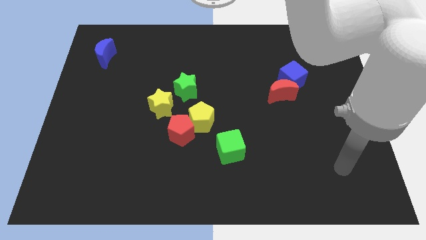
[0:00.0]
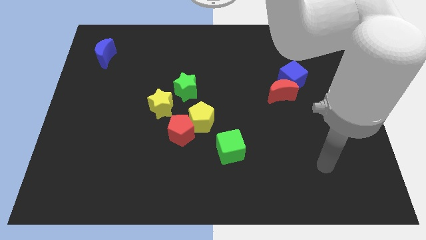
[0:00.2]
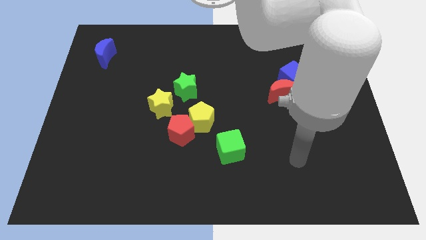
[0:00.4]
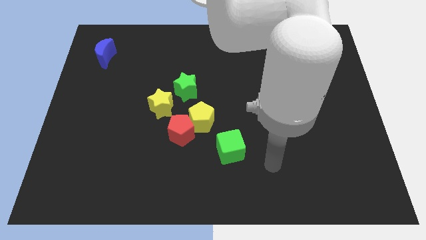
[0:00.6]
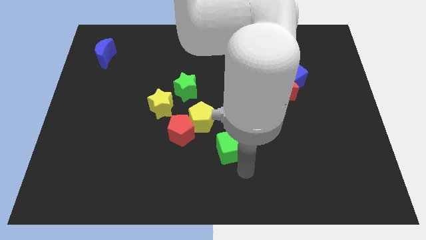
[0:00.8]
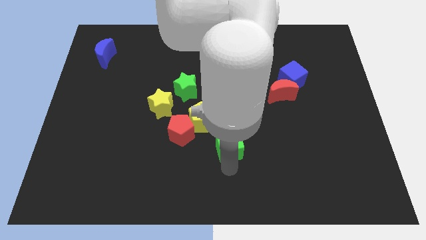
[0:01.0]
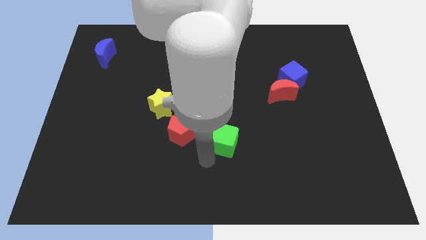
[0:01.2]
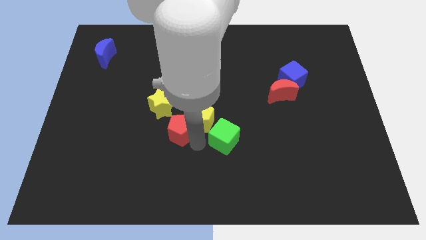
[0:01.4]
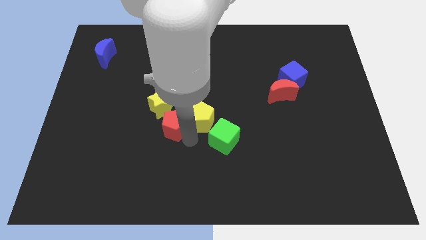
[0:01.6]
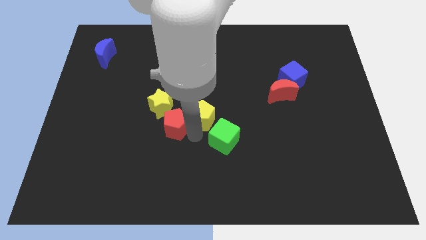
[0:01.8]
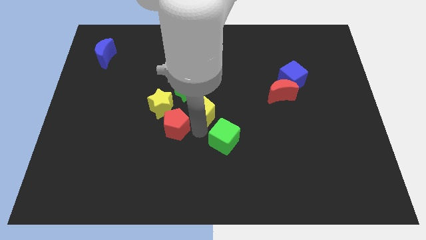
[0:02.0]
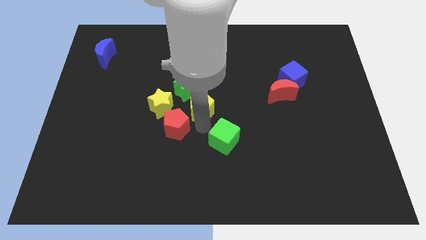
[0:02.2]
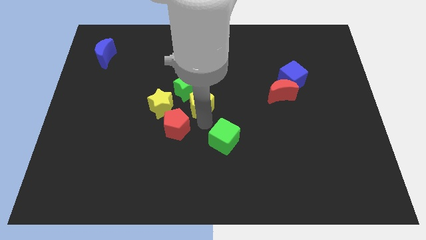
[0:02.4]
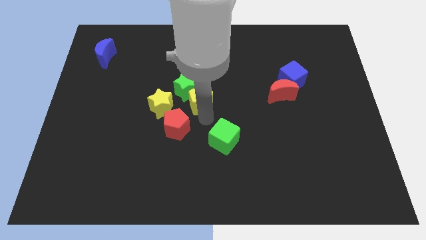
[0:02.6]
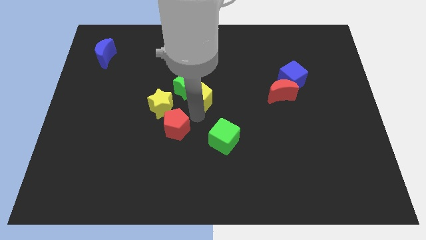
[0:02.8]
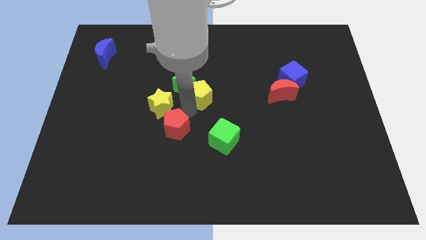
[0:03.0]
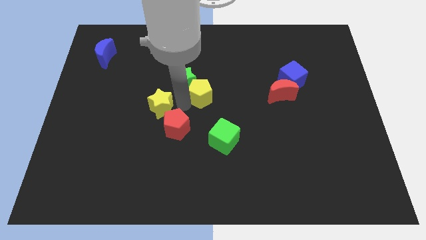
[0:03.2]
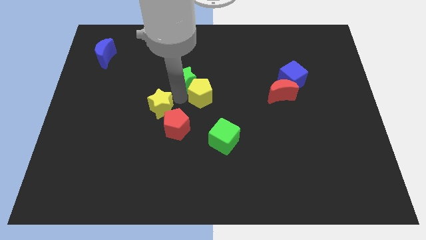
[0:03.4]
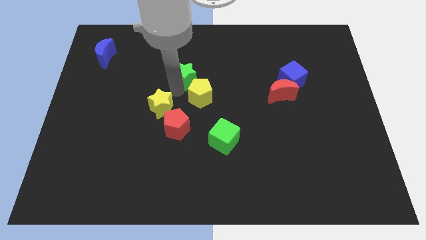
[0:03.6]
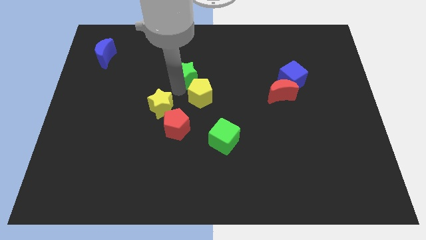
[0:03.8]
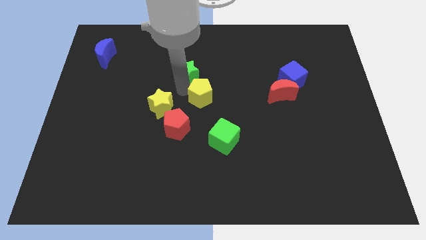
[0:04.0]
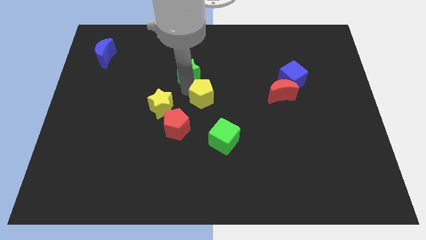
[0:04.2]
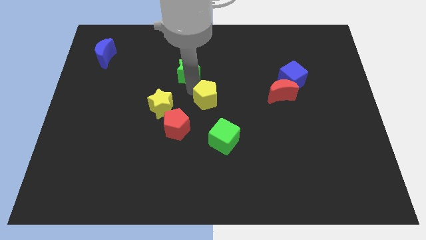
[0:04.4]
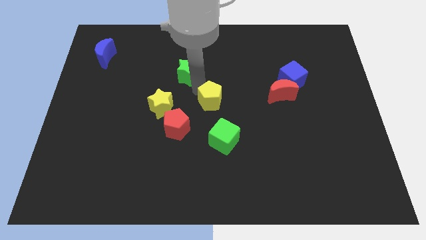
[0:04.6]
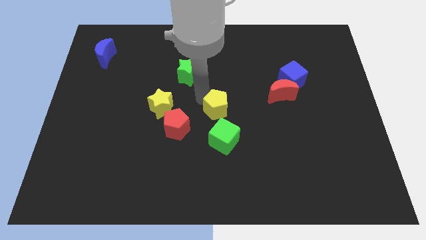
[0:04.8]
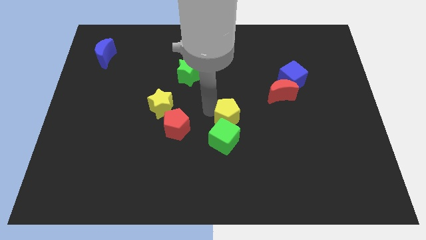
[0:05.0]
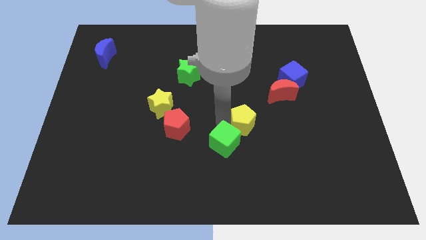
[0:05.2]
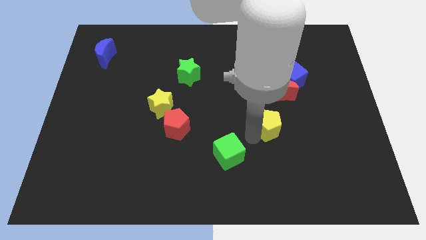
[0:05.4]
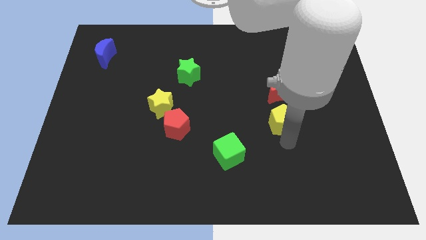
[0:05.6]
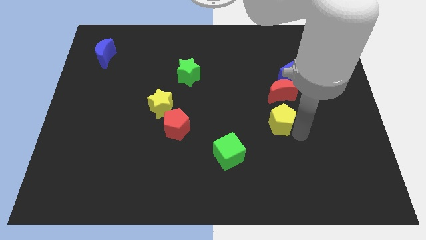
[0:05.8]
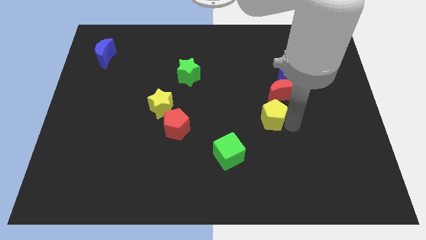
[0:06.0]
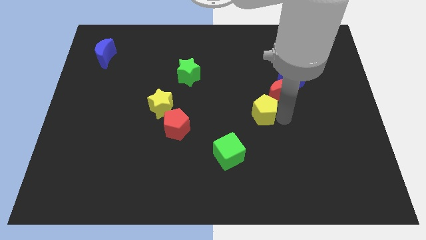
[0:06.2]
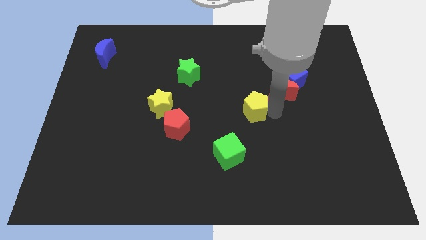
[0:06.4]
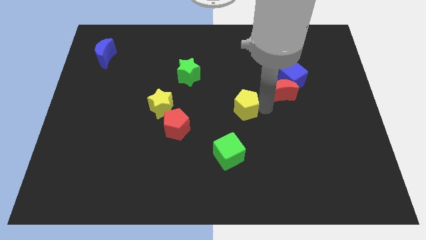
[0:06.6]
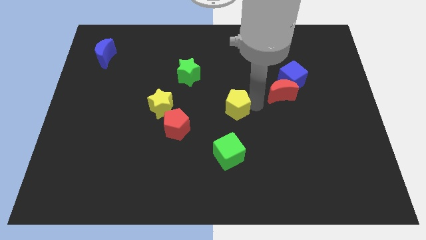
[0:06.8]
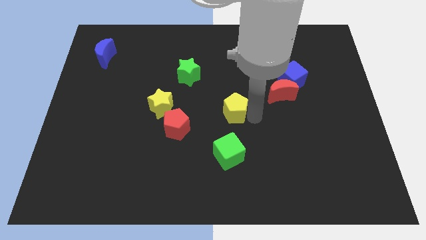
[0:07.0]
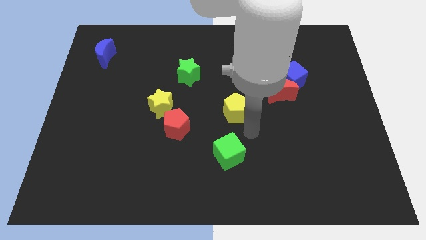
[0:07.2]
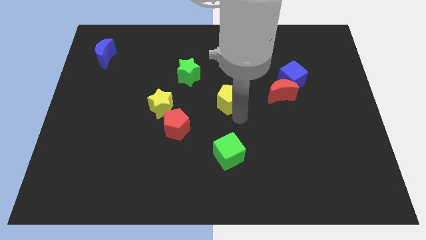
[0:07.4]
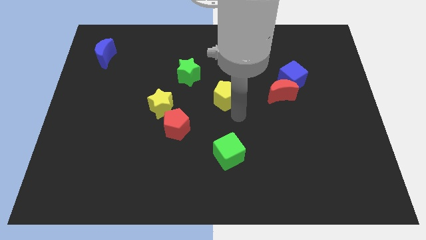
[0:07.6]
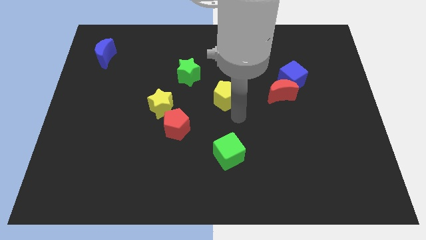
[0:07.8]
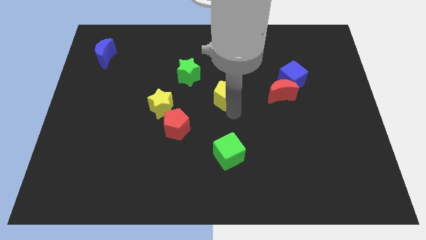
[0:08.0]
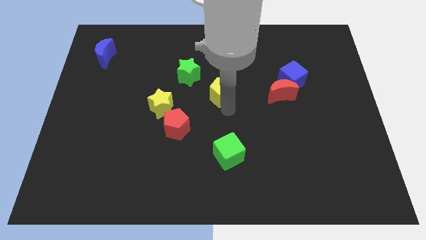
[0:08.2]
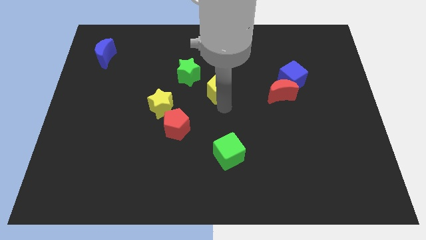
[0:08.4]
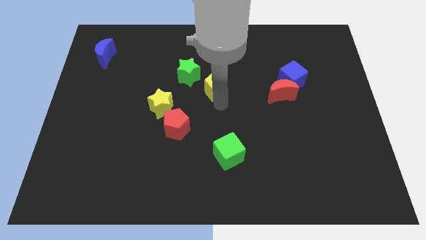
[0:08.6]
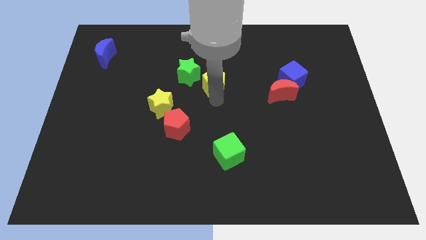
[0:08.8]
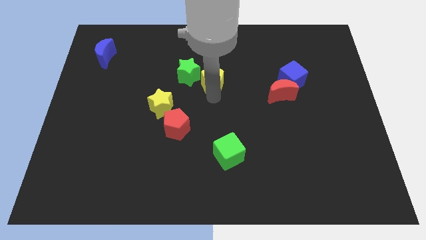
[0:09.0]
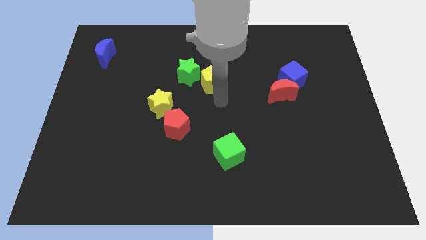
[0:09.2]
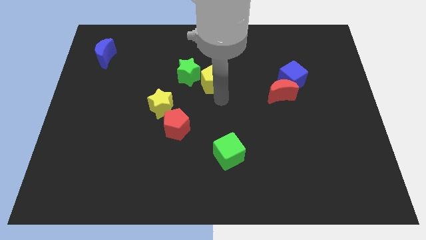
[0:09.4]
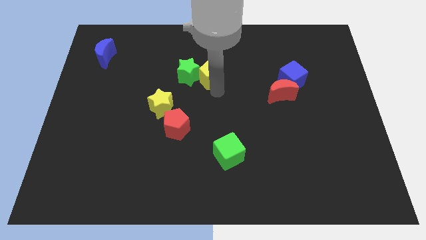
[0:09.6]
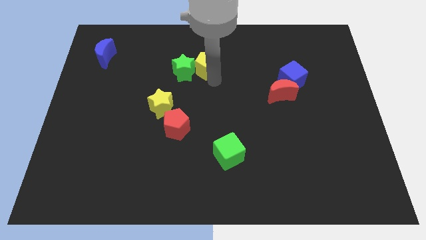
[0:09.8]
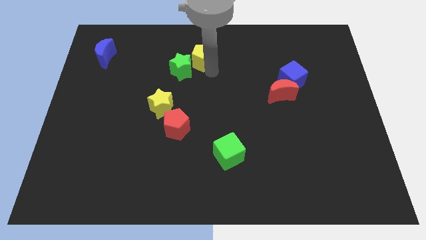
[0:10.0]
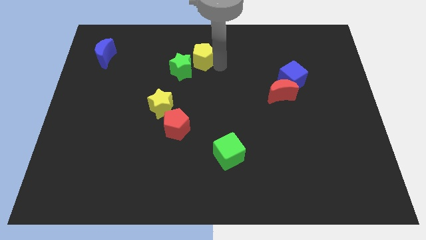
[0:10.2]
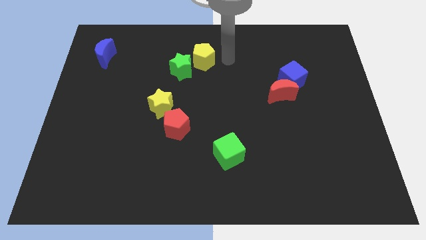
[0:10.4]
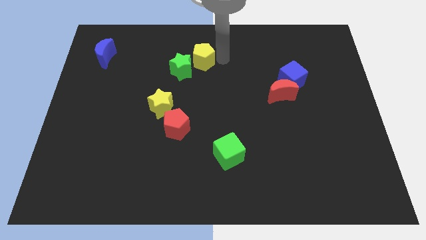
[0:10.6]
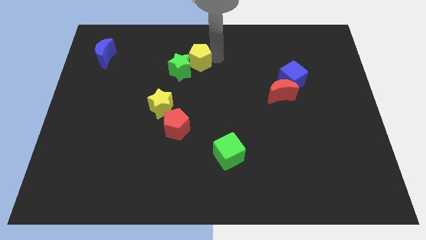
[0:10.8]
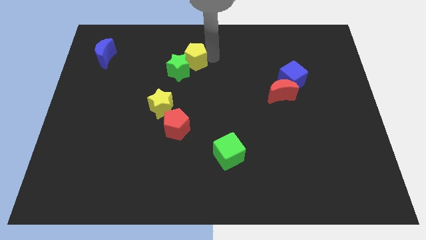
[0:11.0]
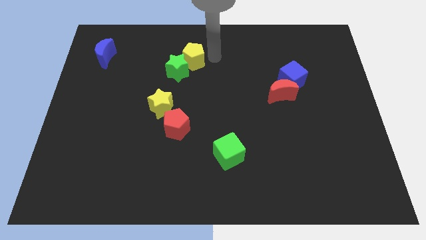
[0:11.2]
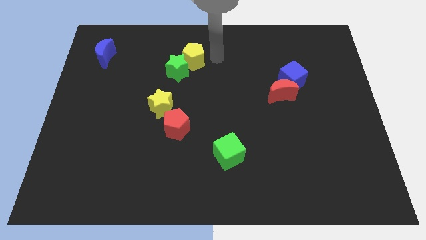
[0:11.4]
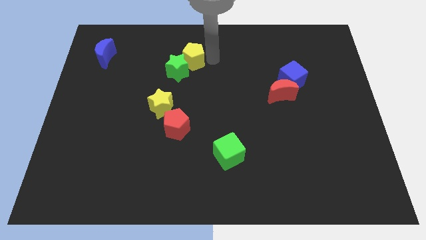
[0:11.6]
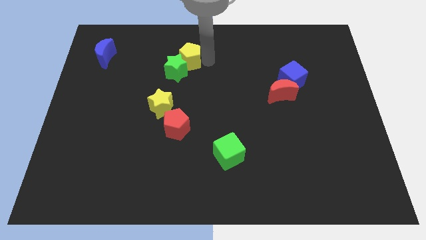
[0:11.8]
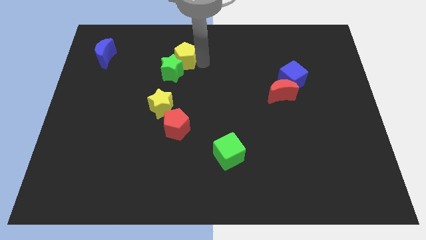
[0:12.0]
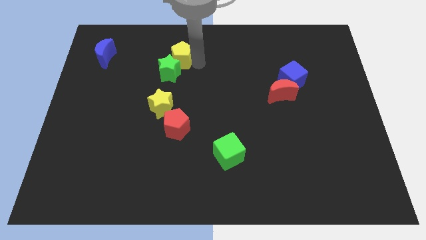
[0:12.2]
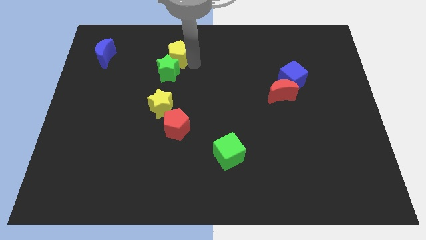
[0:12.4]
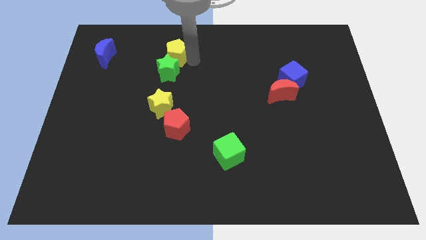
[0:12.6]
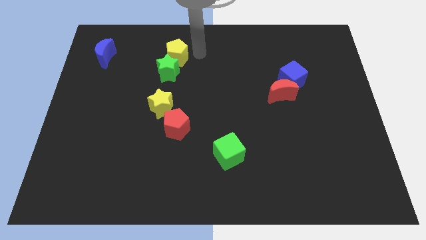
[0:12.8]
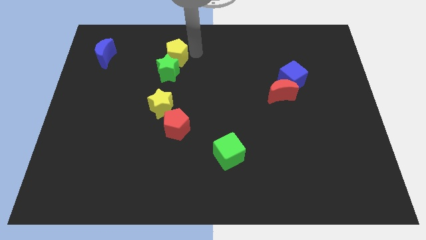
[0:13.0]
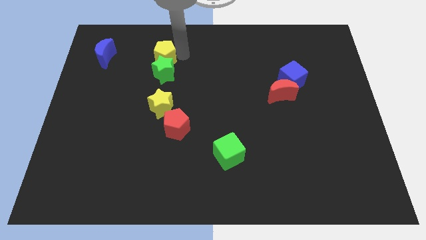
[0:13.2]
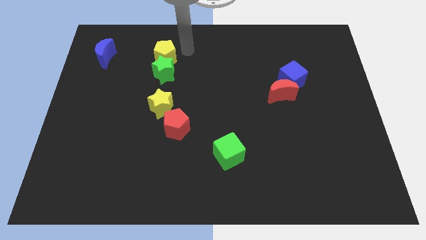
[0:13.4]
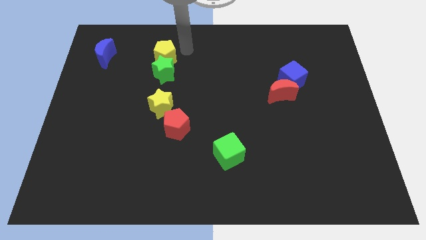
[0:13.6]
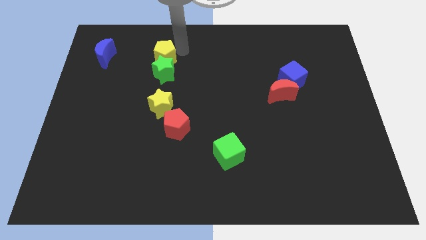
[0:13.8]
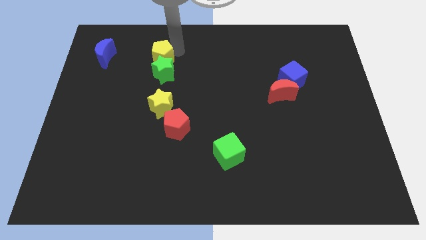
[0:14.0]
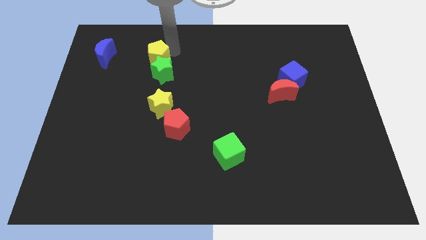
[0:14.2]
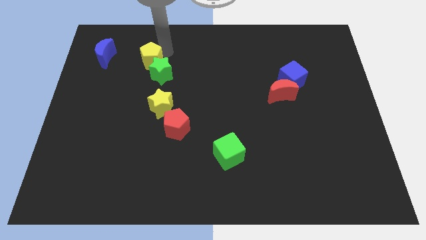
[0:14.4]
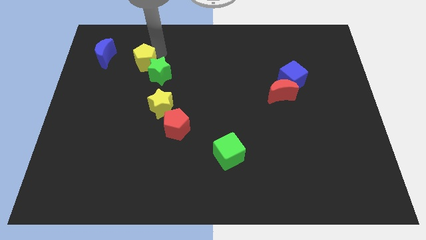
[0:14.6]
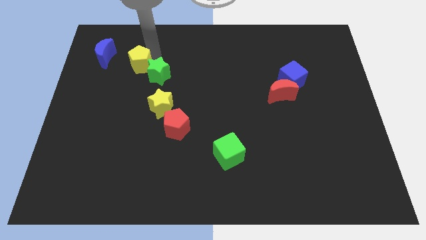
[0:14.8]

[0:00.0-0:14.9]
slide the yellow pentagon diagonally down and to the right of the blue moon
